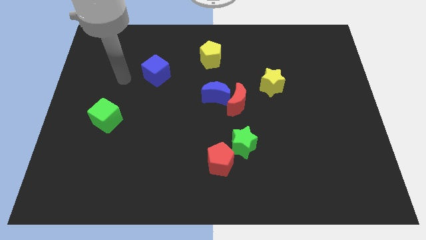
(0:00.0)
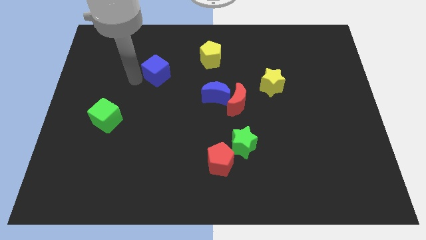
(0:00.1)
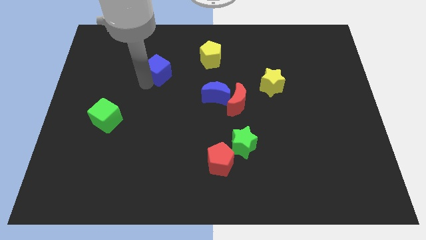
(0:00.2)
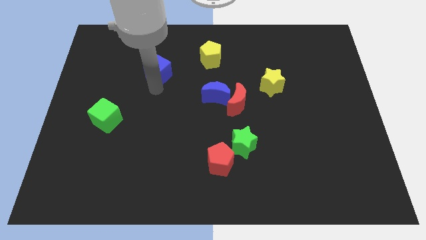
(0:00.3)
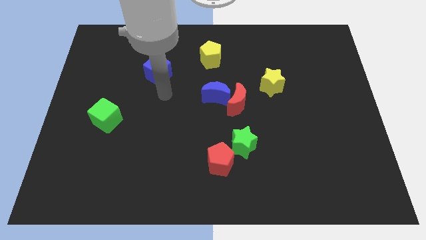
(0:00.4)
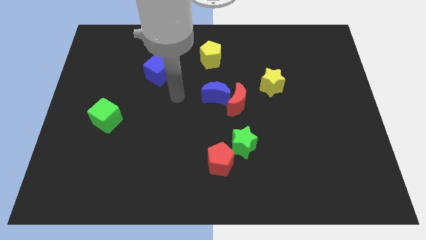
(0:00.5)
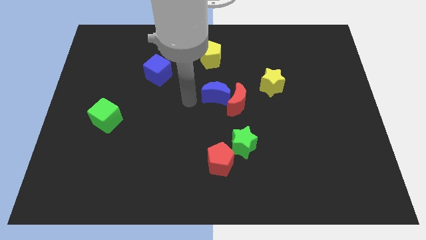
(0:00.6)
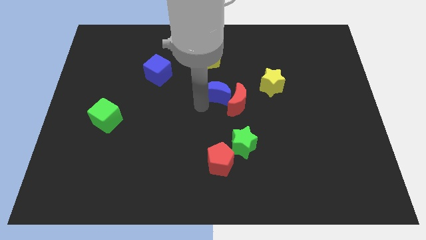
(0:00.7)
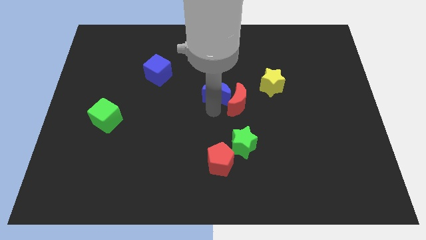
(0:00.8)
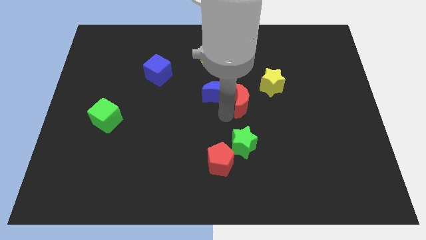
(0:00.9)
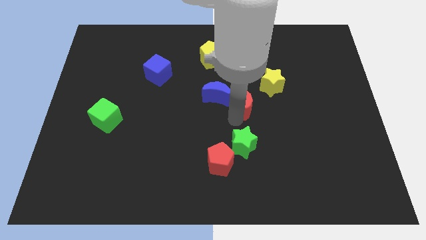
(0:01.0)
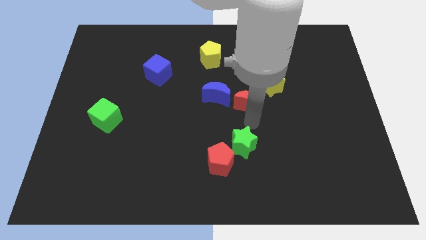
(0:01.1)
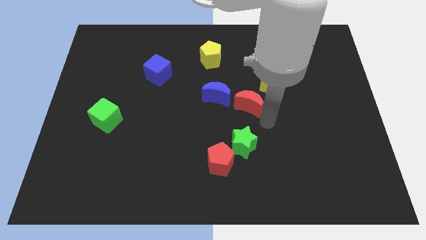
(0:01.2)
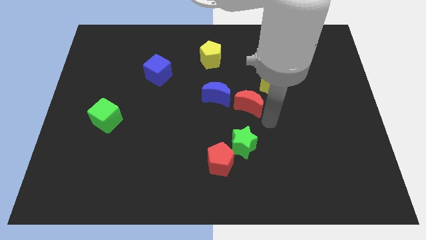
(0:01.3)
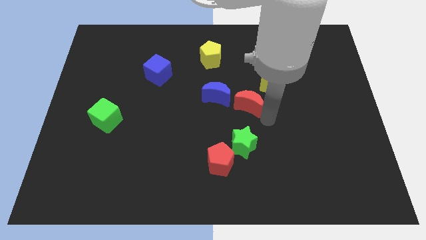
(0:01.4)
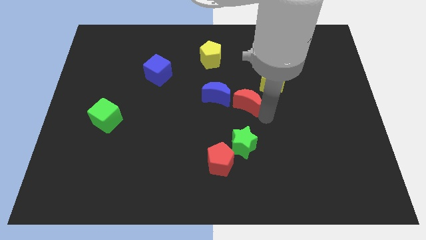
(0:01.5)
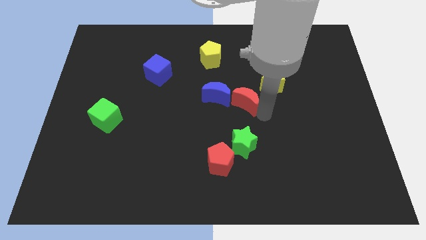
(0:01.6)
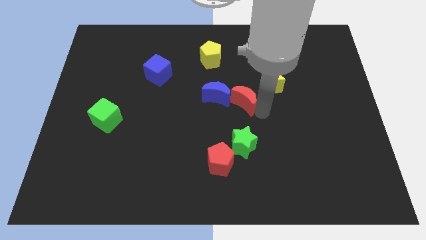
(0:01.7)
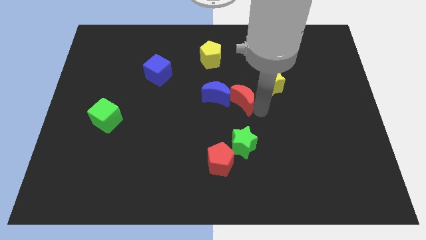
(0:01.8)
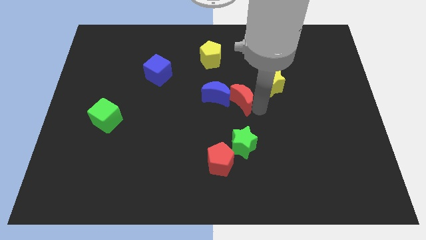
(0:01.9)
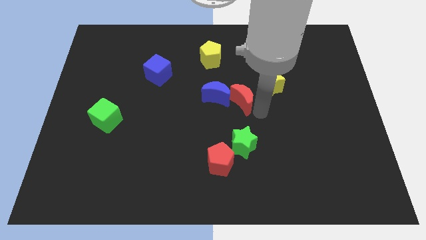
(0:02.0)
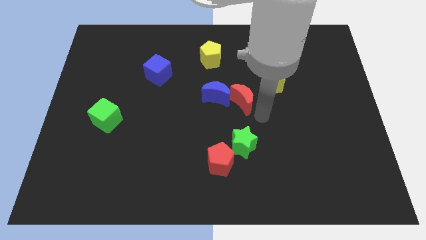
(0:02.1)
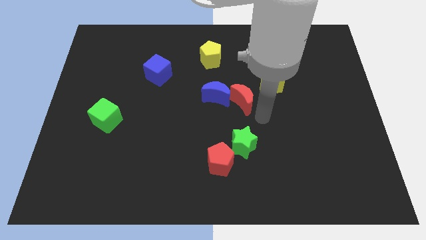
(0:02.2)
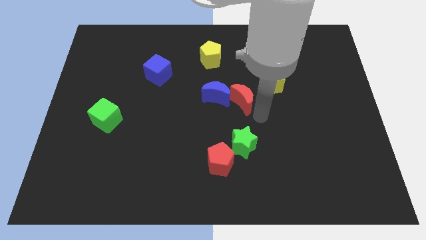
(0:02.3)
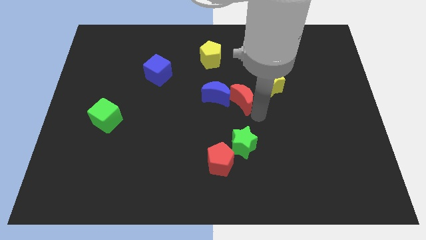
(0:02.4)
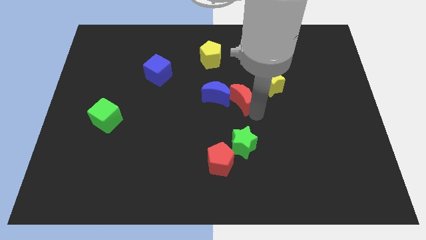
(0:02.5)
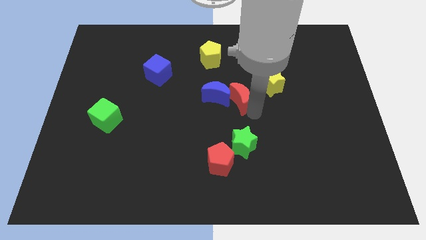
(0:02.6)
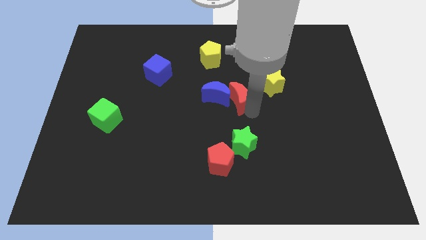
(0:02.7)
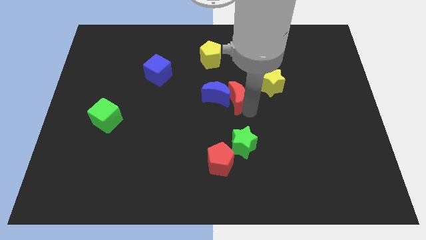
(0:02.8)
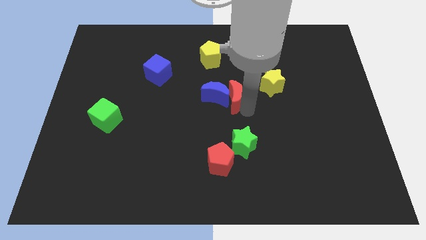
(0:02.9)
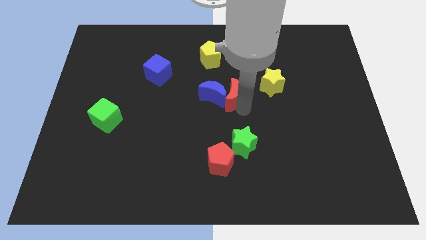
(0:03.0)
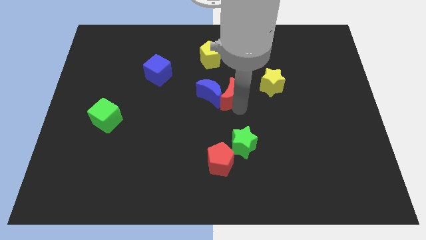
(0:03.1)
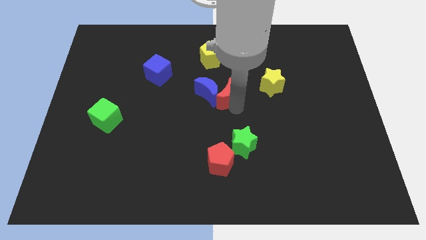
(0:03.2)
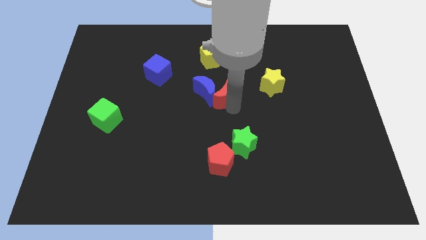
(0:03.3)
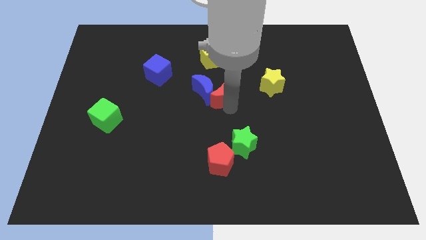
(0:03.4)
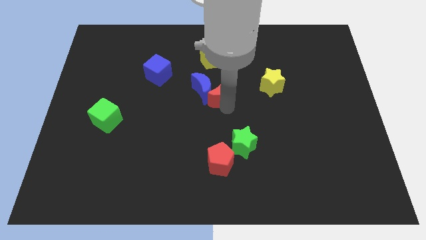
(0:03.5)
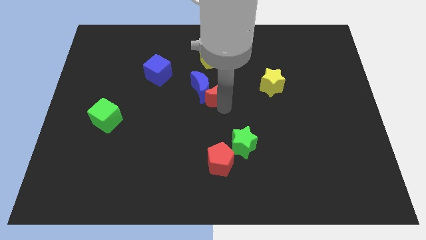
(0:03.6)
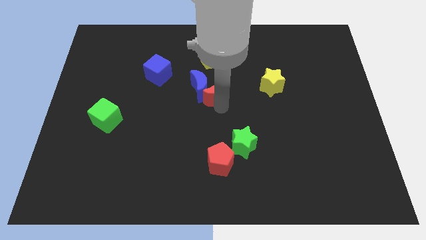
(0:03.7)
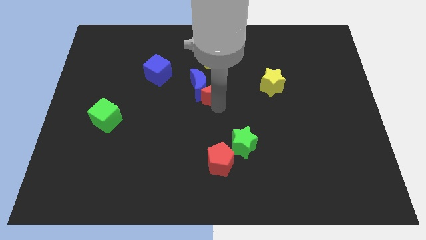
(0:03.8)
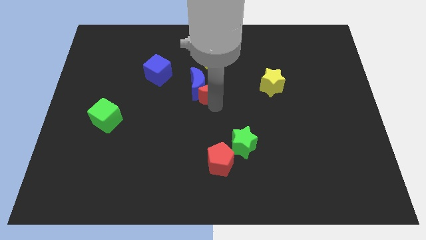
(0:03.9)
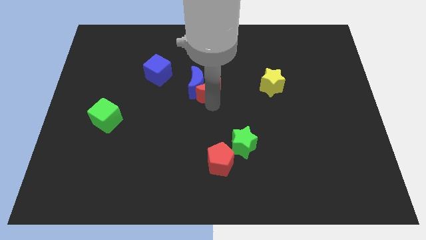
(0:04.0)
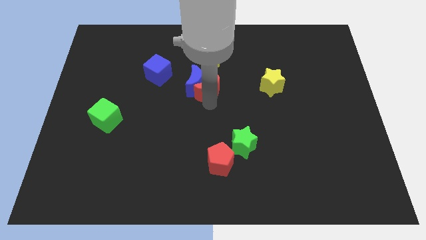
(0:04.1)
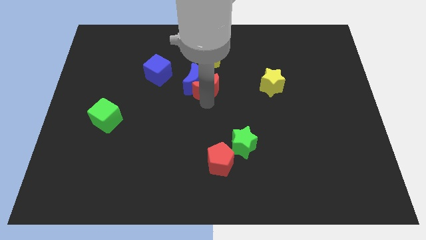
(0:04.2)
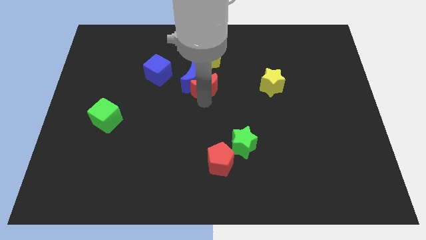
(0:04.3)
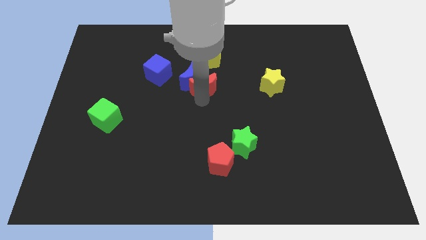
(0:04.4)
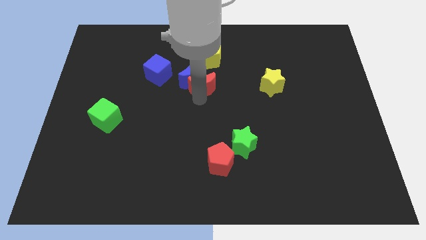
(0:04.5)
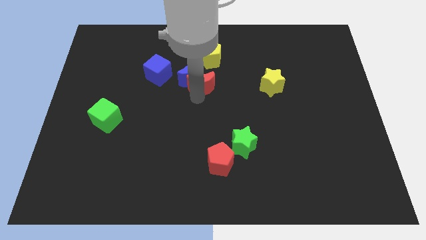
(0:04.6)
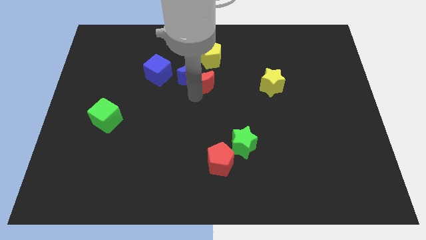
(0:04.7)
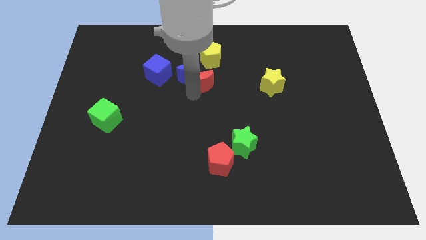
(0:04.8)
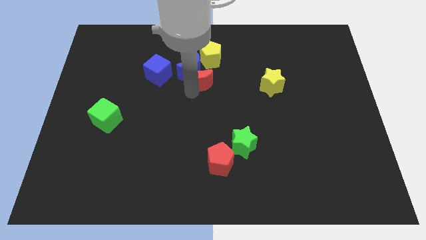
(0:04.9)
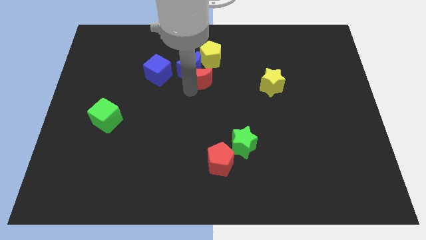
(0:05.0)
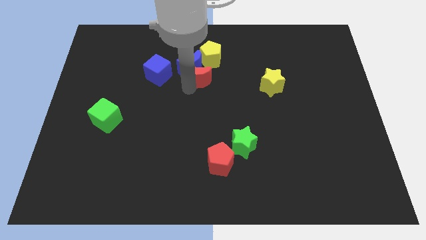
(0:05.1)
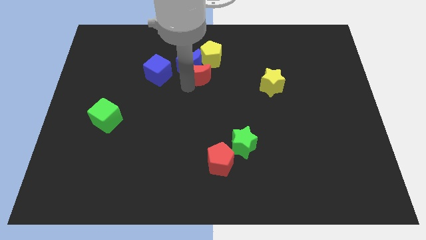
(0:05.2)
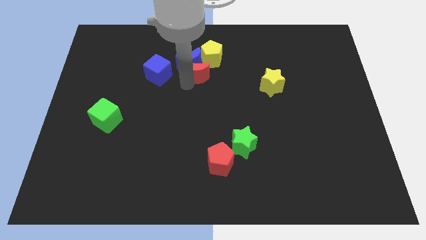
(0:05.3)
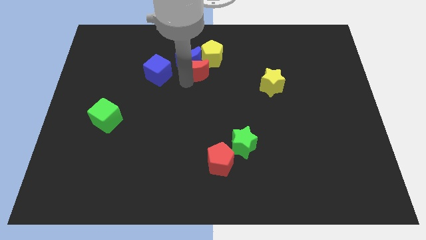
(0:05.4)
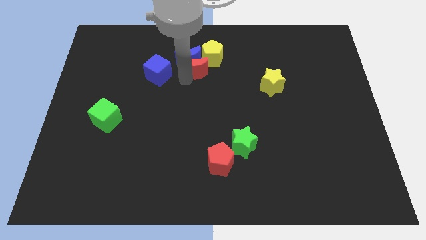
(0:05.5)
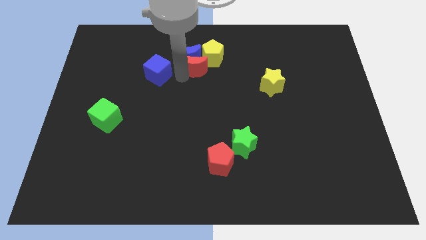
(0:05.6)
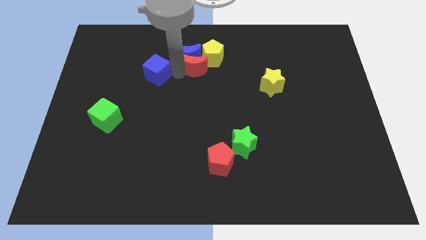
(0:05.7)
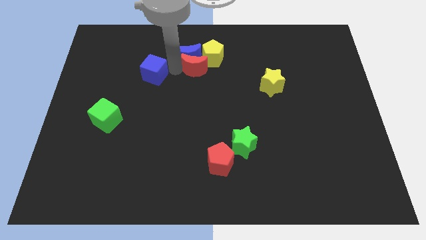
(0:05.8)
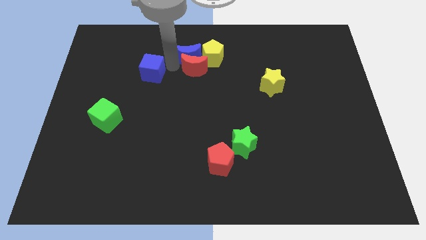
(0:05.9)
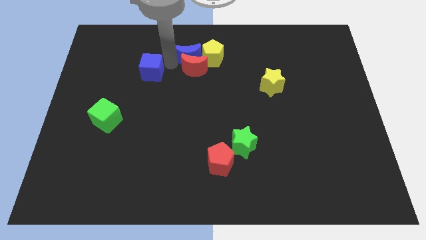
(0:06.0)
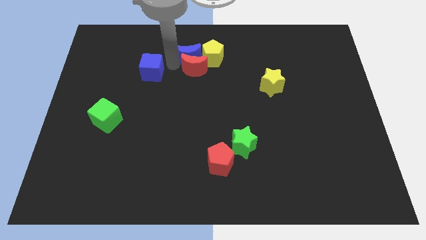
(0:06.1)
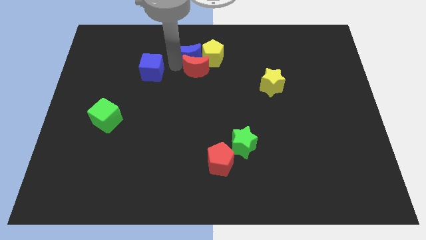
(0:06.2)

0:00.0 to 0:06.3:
put the red moon towards the yellow pentagon

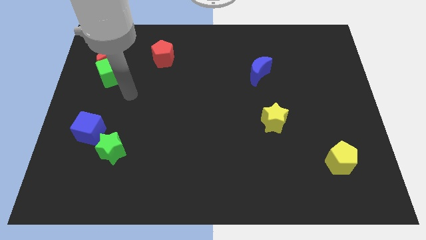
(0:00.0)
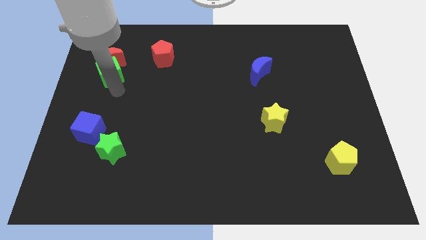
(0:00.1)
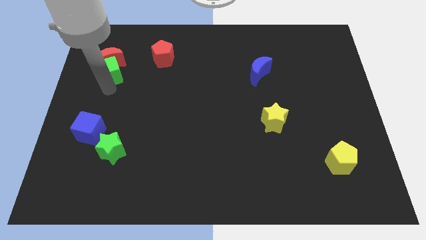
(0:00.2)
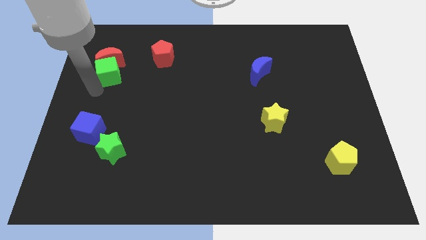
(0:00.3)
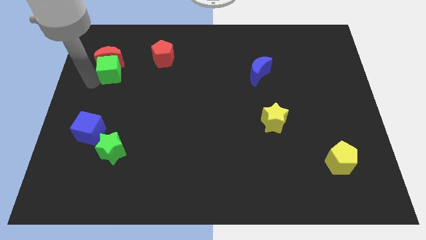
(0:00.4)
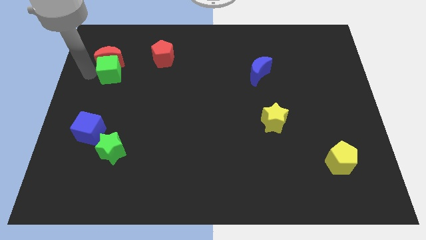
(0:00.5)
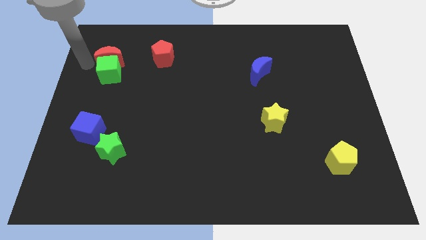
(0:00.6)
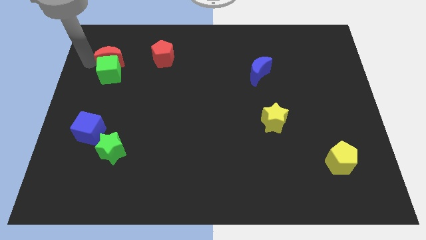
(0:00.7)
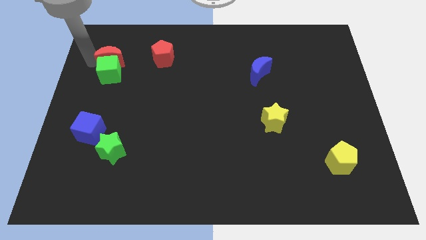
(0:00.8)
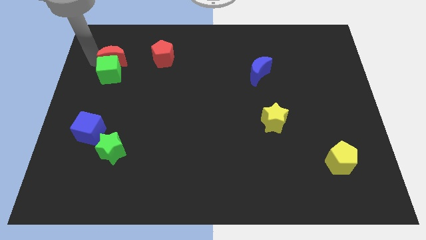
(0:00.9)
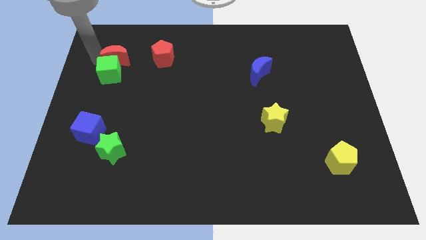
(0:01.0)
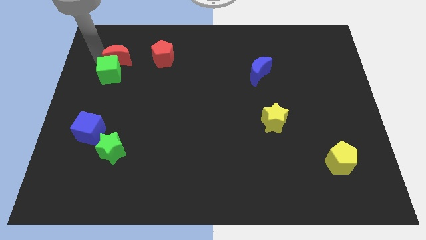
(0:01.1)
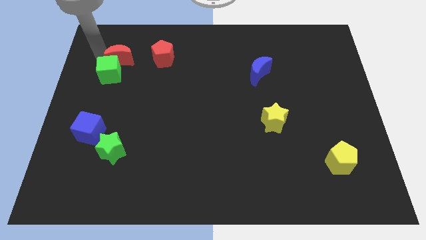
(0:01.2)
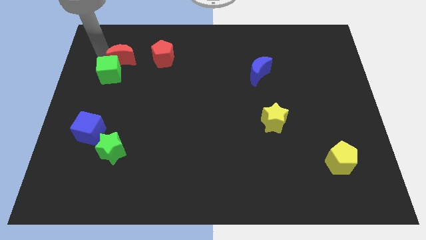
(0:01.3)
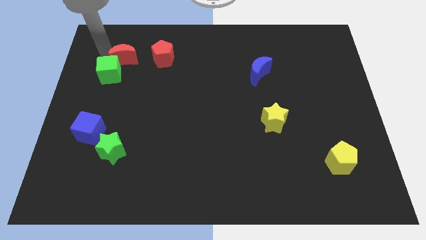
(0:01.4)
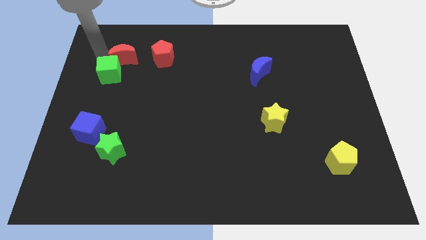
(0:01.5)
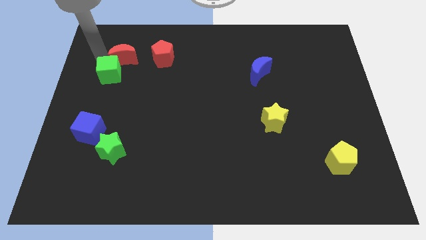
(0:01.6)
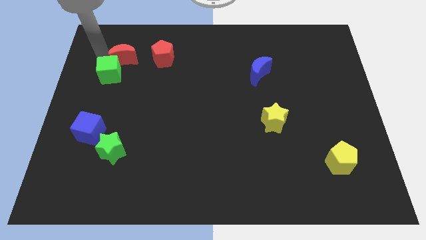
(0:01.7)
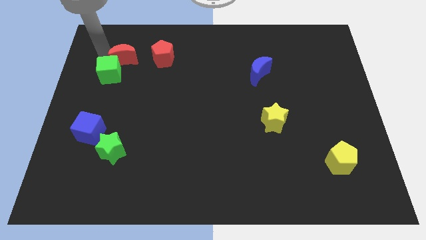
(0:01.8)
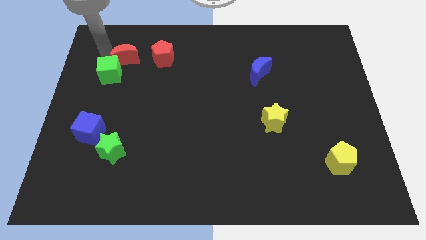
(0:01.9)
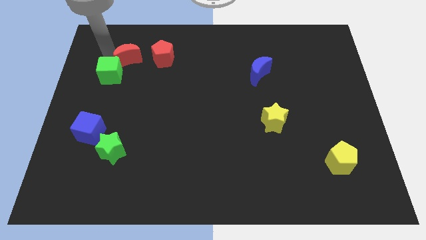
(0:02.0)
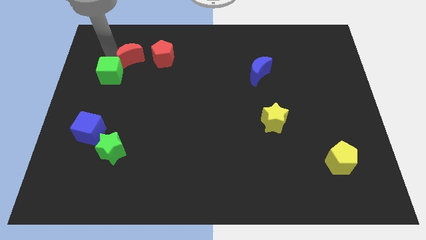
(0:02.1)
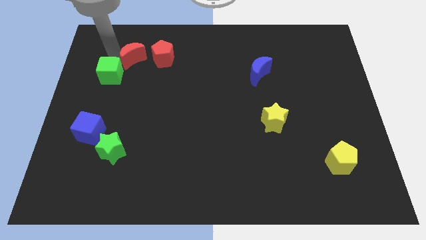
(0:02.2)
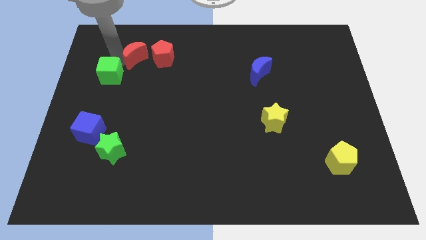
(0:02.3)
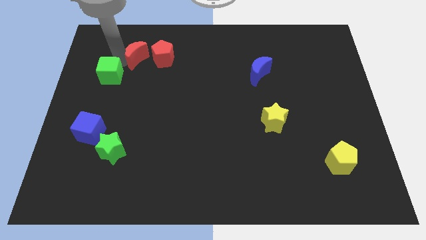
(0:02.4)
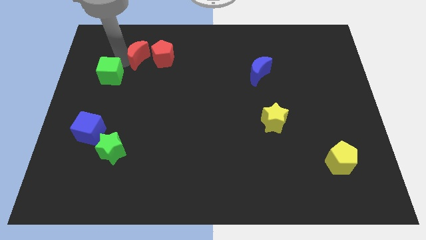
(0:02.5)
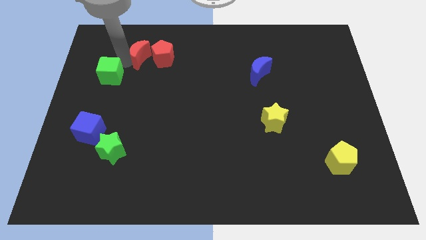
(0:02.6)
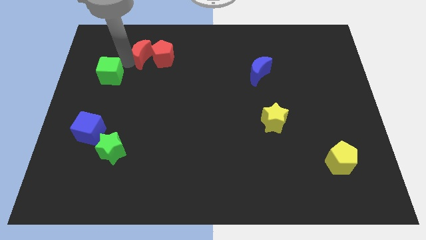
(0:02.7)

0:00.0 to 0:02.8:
push the red moon towards the red pentagon
